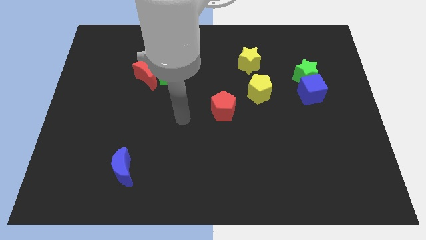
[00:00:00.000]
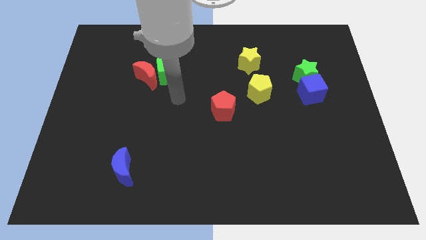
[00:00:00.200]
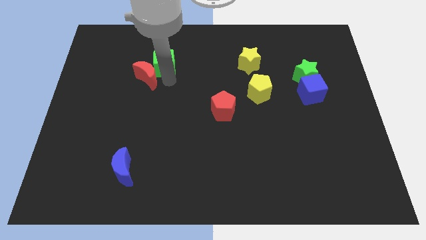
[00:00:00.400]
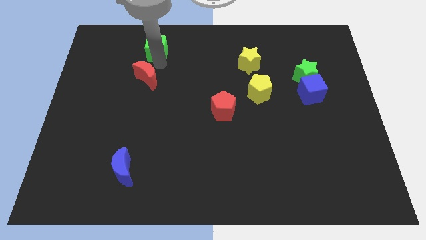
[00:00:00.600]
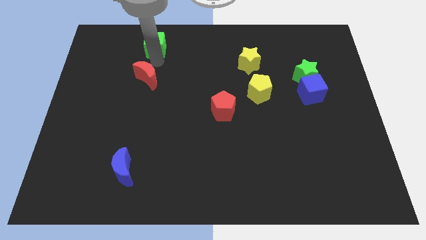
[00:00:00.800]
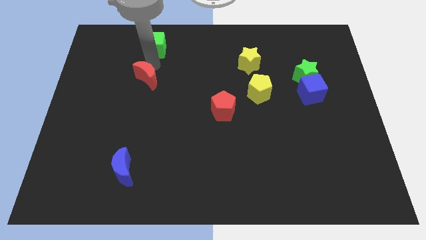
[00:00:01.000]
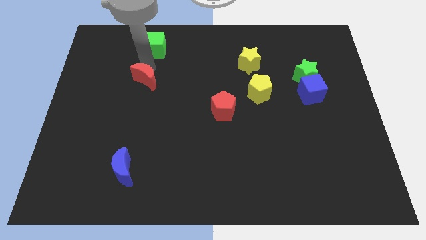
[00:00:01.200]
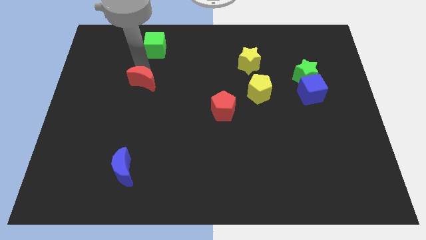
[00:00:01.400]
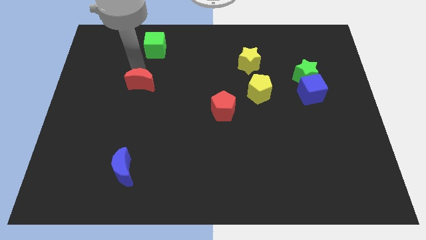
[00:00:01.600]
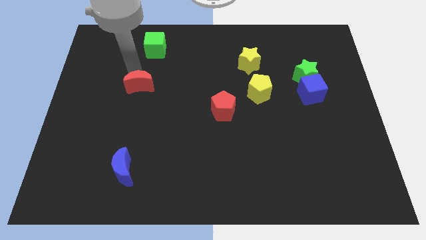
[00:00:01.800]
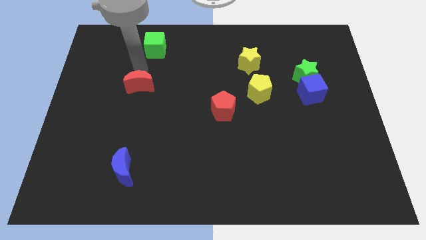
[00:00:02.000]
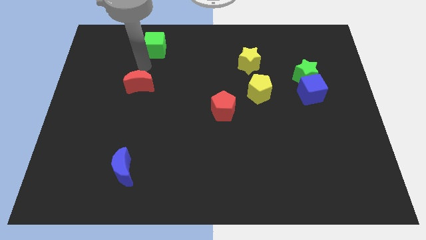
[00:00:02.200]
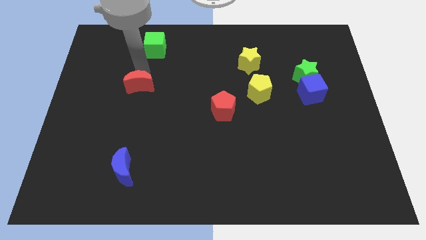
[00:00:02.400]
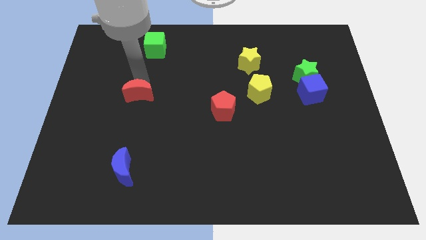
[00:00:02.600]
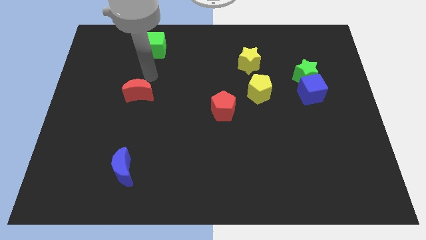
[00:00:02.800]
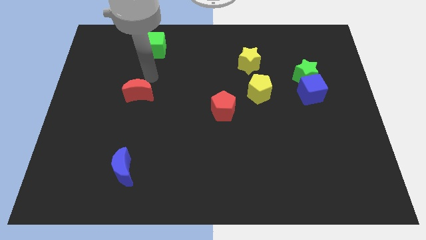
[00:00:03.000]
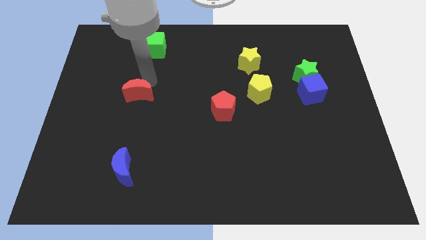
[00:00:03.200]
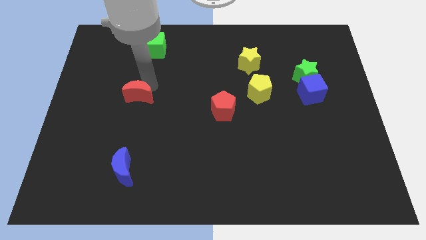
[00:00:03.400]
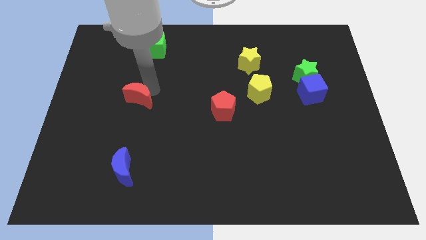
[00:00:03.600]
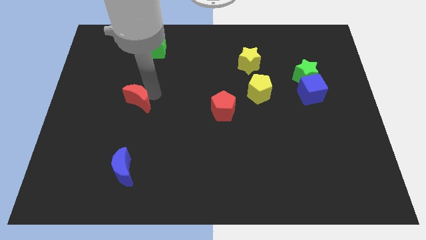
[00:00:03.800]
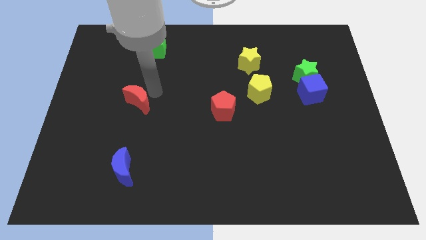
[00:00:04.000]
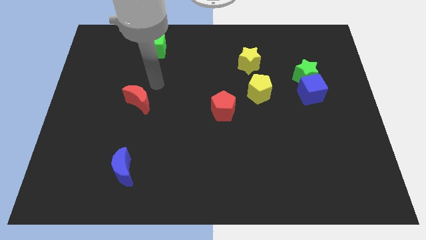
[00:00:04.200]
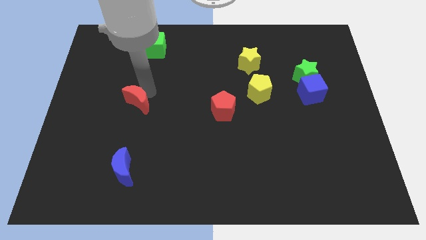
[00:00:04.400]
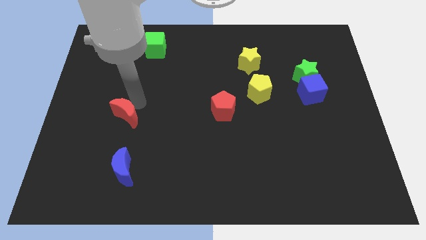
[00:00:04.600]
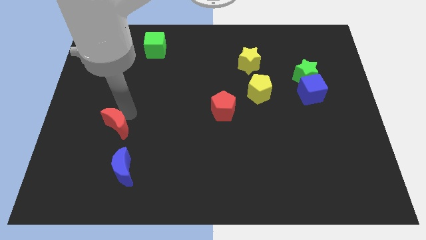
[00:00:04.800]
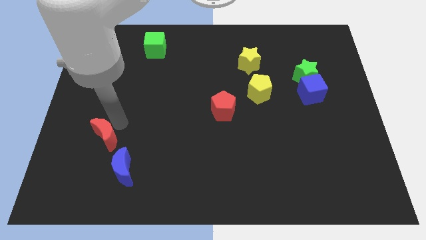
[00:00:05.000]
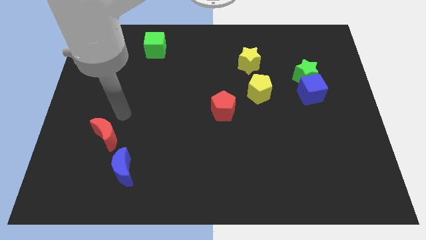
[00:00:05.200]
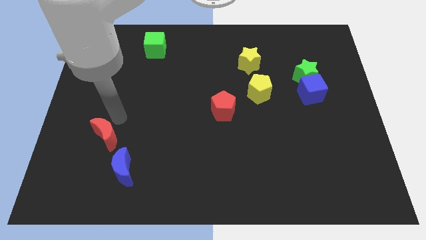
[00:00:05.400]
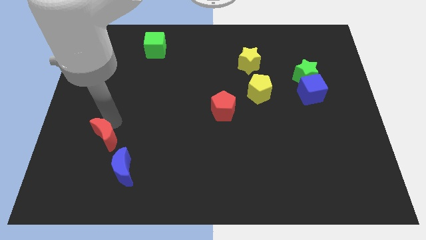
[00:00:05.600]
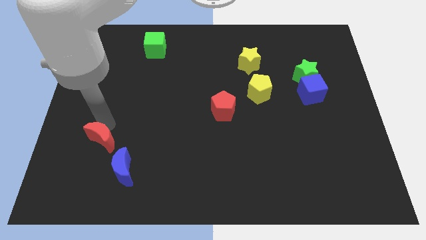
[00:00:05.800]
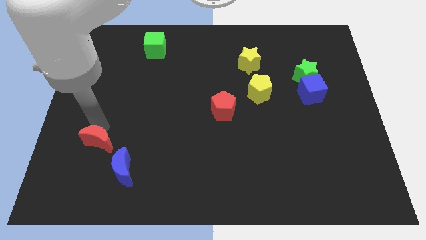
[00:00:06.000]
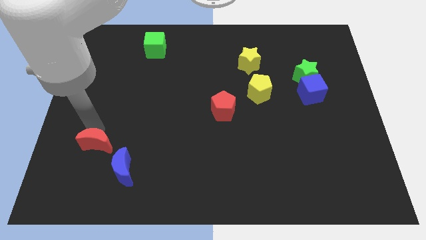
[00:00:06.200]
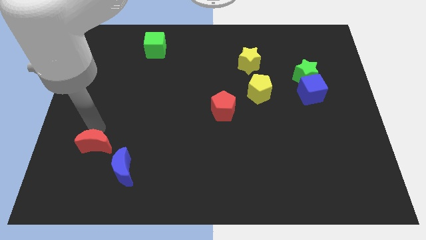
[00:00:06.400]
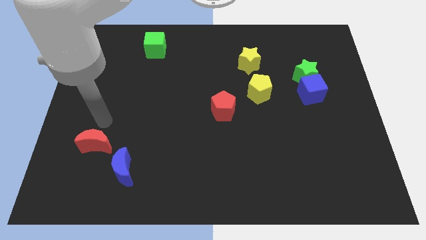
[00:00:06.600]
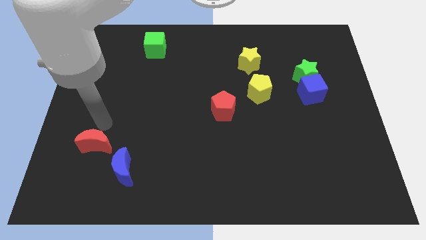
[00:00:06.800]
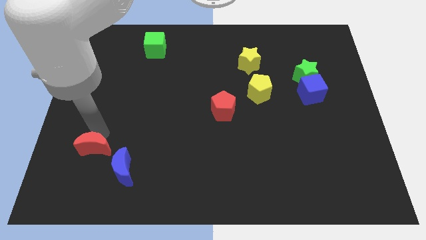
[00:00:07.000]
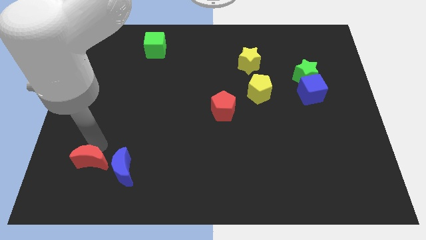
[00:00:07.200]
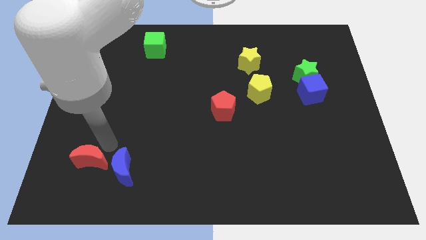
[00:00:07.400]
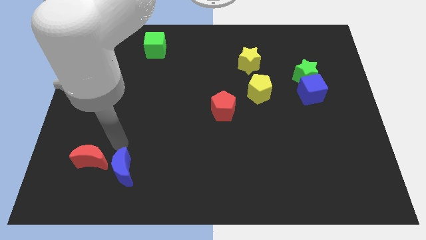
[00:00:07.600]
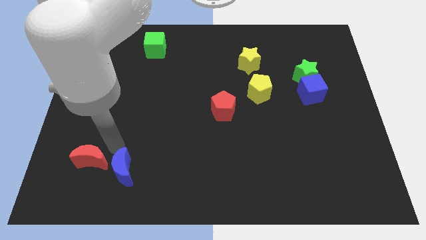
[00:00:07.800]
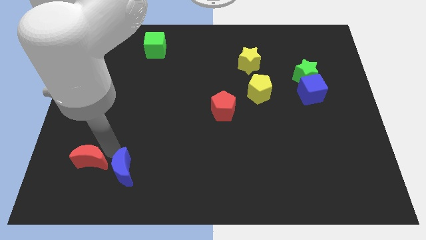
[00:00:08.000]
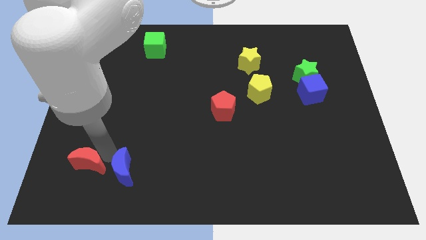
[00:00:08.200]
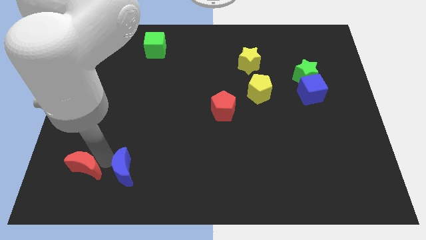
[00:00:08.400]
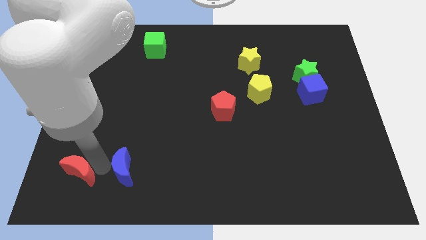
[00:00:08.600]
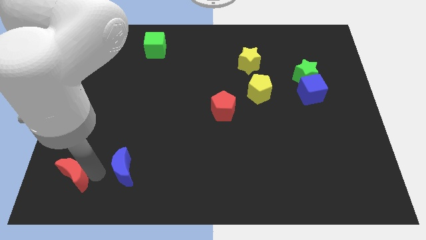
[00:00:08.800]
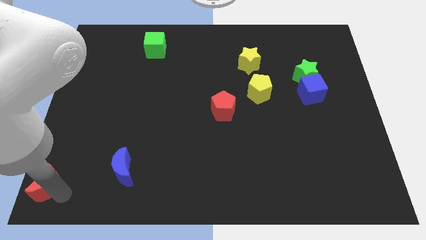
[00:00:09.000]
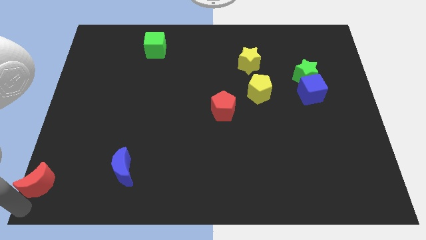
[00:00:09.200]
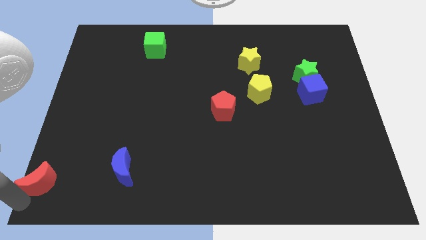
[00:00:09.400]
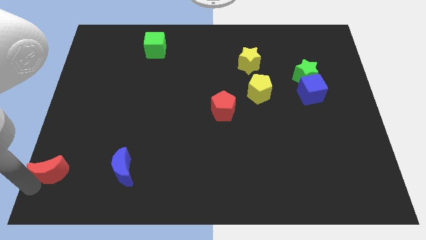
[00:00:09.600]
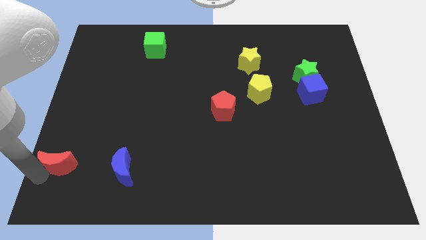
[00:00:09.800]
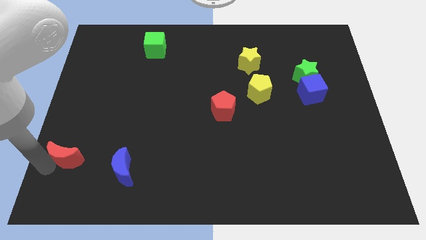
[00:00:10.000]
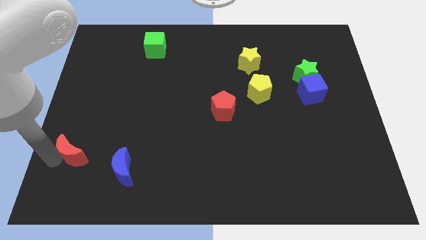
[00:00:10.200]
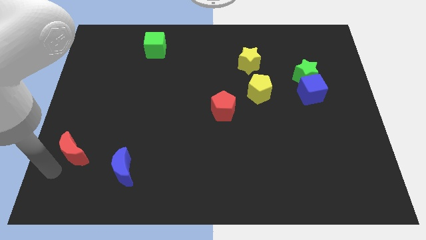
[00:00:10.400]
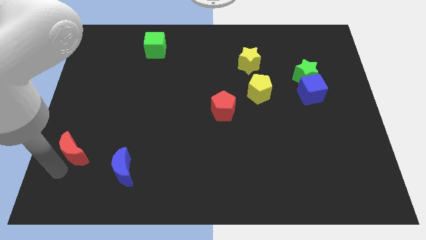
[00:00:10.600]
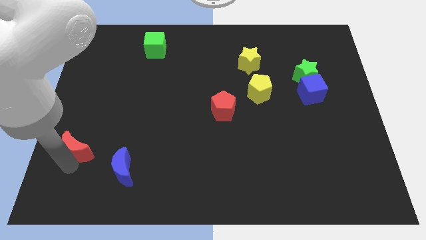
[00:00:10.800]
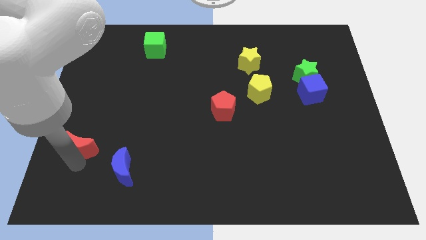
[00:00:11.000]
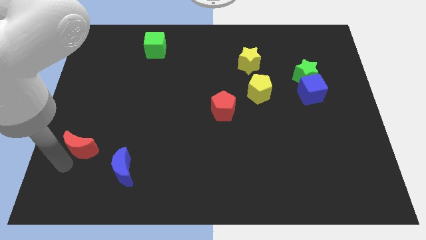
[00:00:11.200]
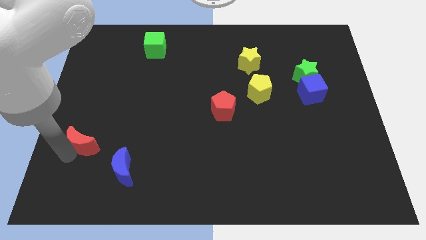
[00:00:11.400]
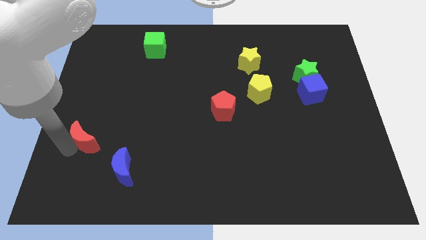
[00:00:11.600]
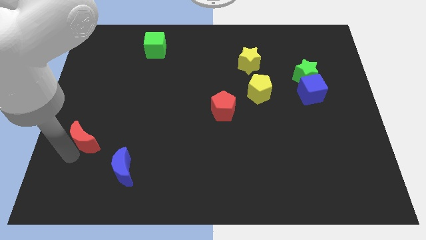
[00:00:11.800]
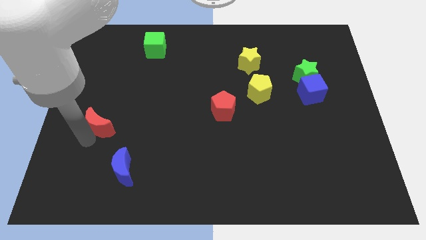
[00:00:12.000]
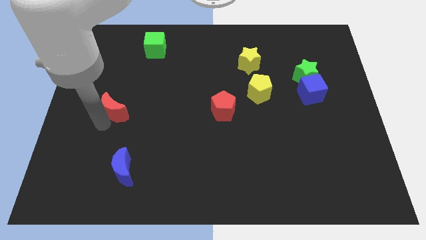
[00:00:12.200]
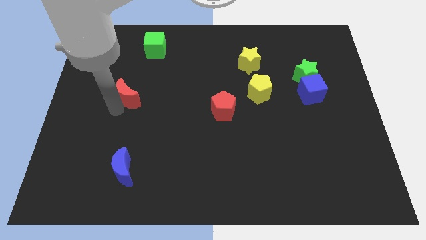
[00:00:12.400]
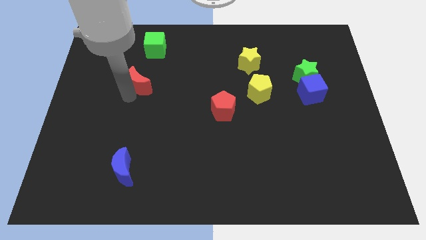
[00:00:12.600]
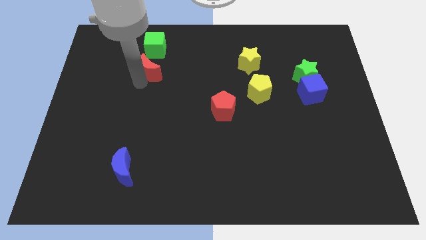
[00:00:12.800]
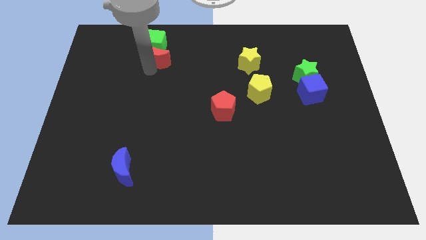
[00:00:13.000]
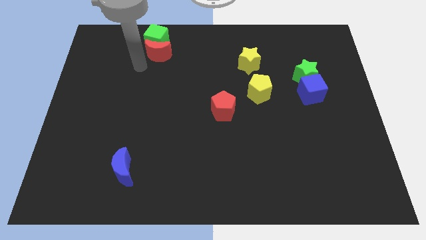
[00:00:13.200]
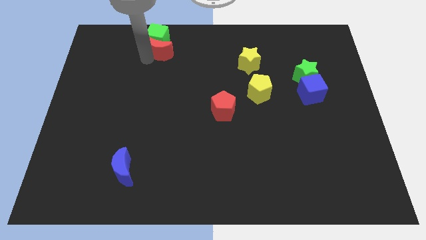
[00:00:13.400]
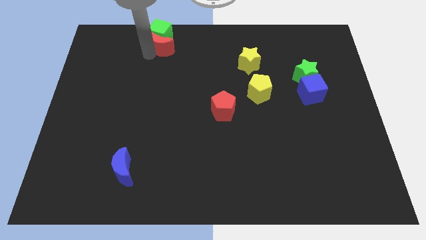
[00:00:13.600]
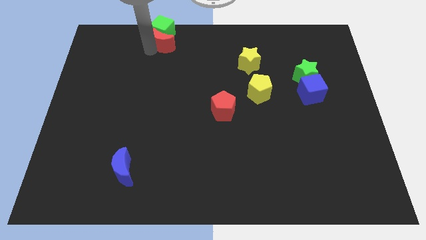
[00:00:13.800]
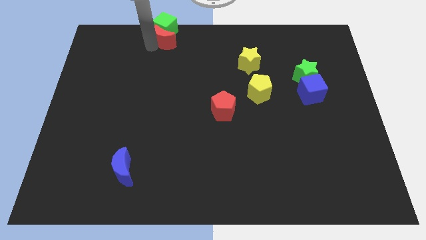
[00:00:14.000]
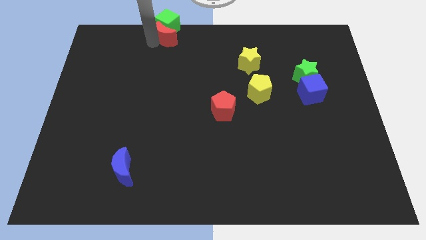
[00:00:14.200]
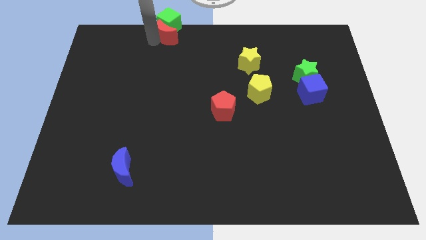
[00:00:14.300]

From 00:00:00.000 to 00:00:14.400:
move the red moon to the towards your base
